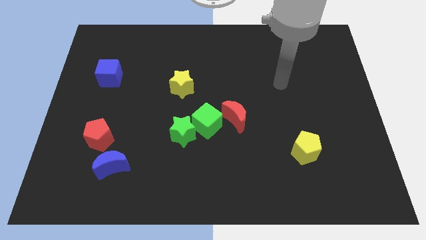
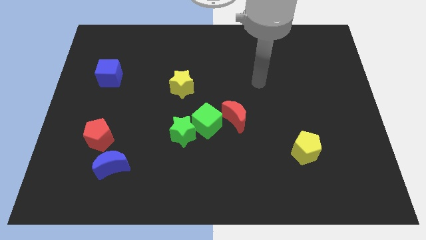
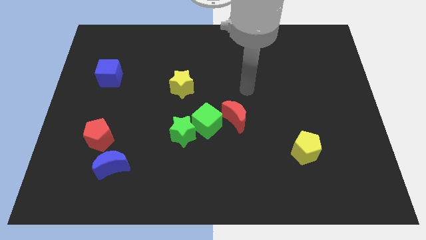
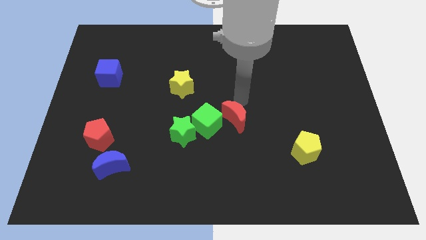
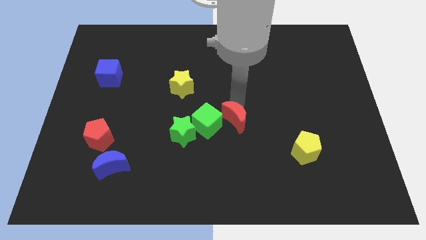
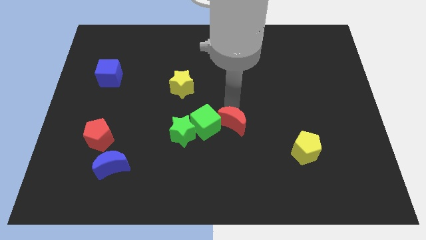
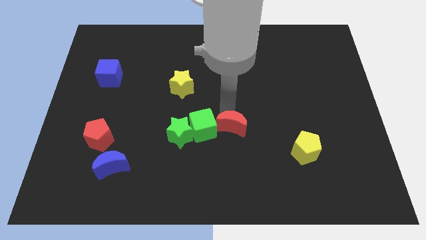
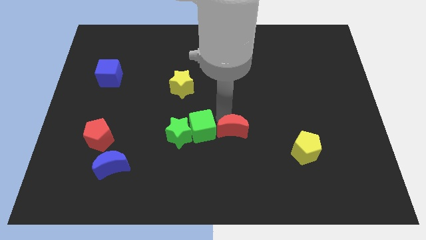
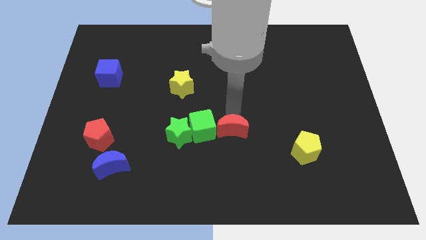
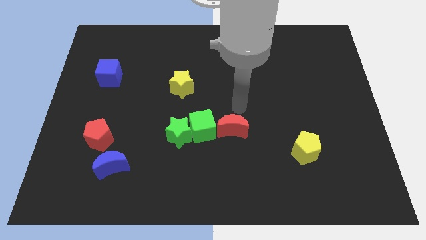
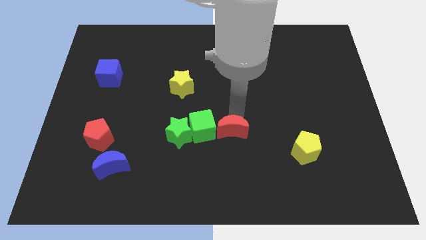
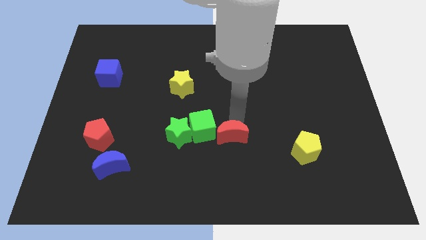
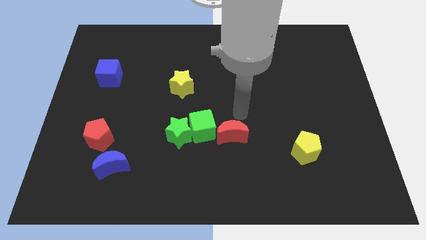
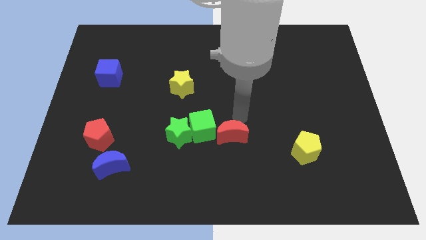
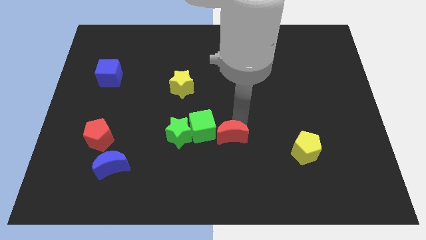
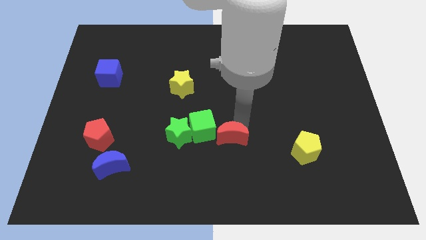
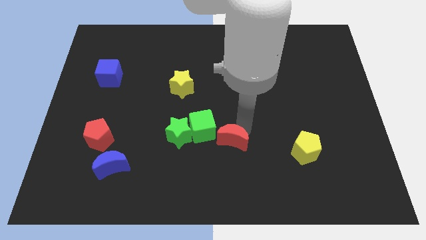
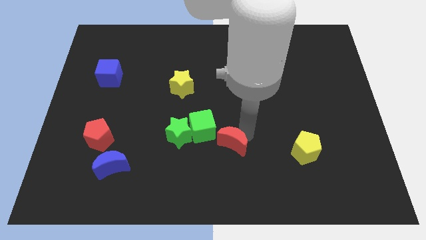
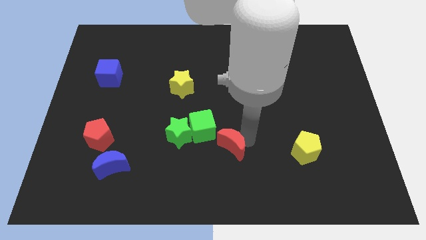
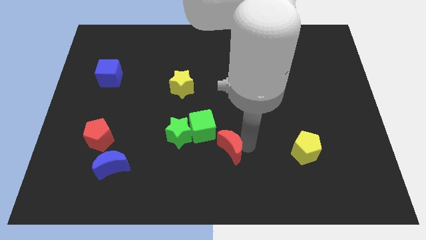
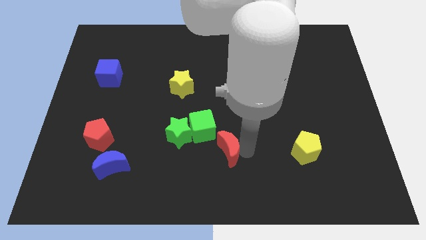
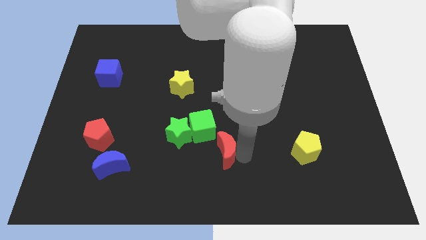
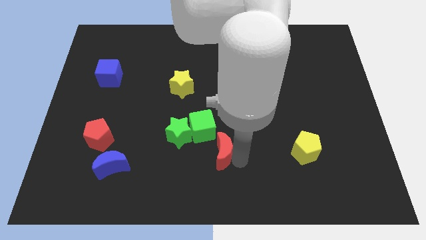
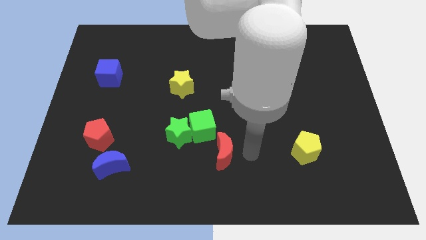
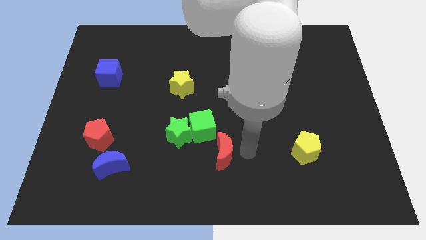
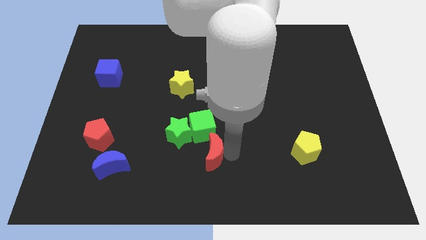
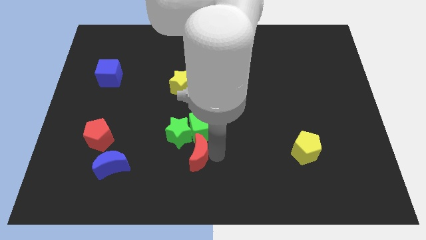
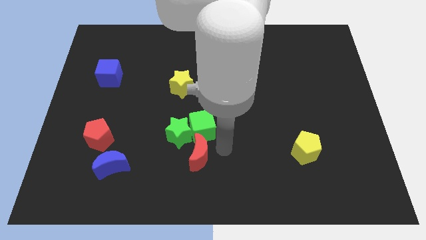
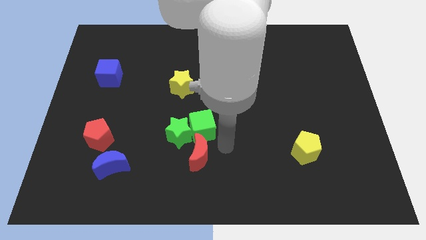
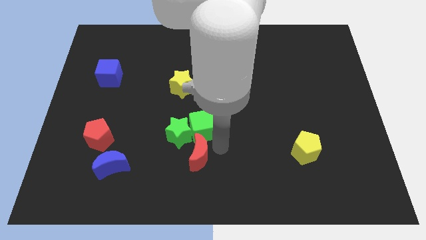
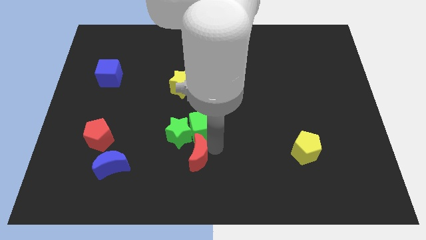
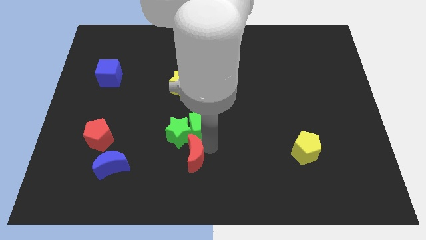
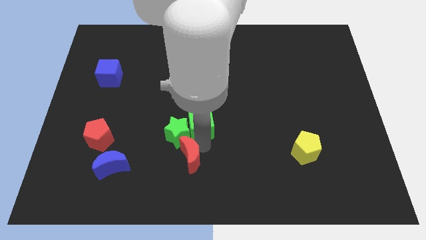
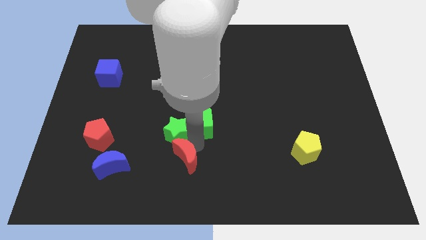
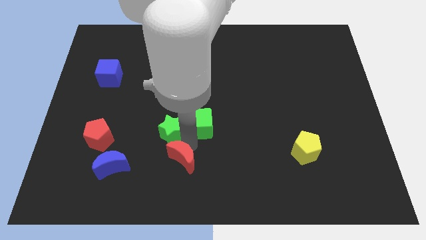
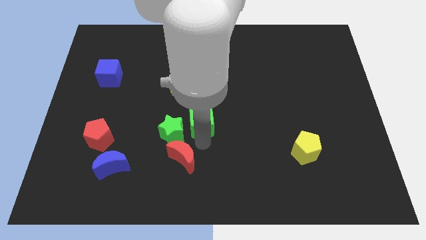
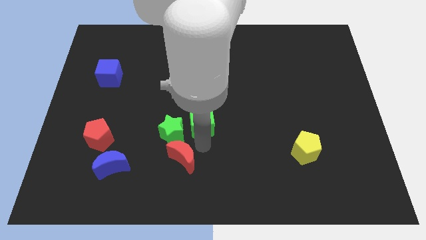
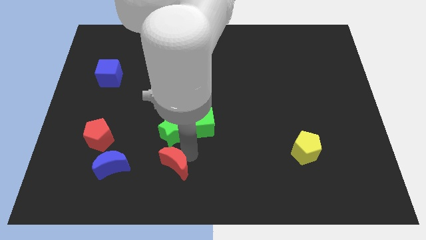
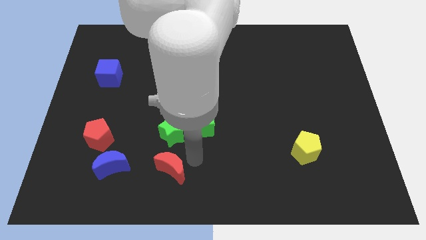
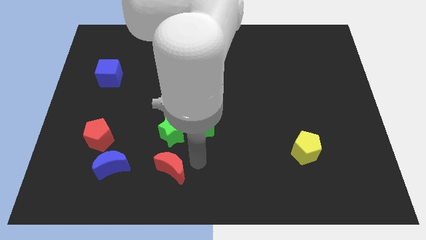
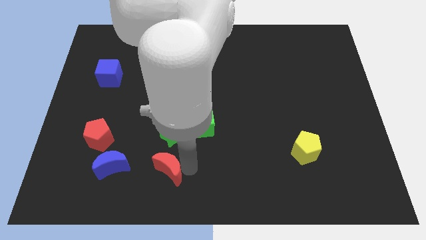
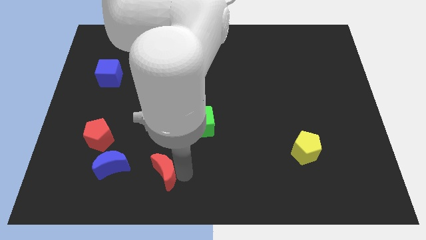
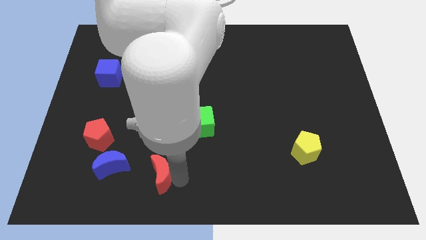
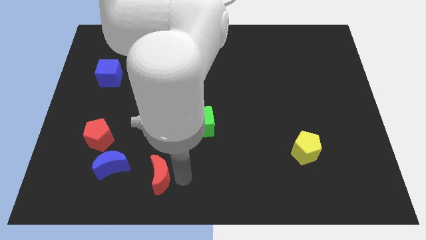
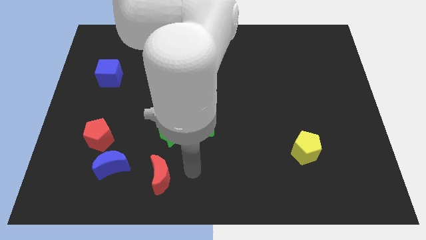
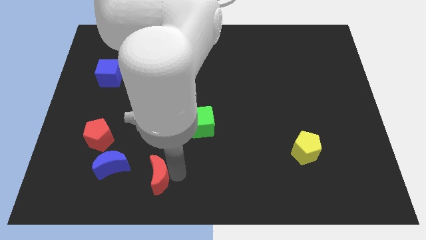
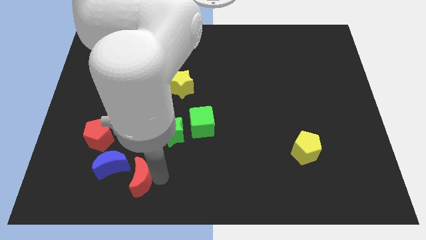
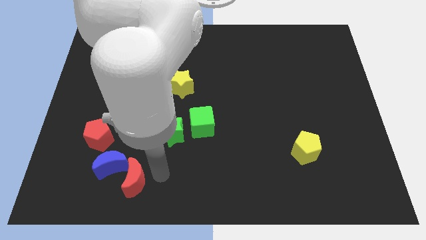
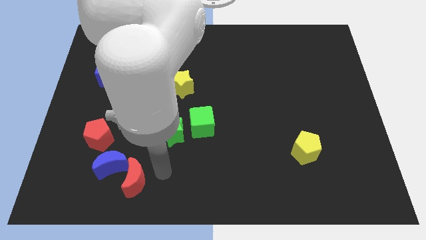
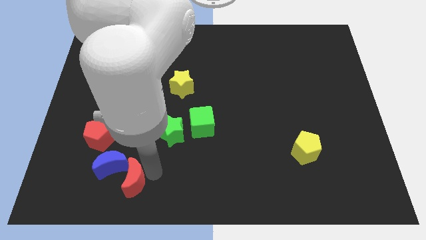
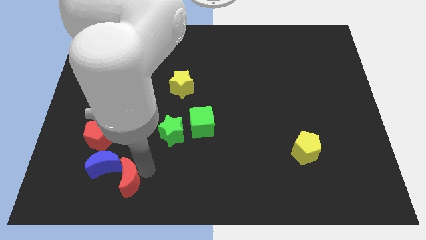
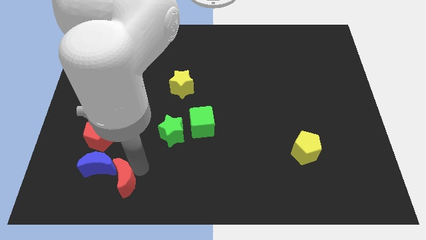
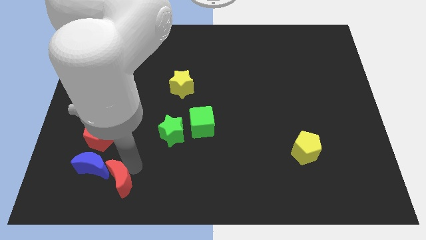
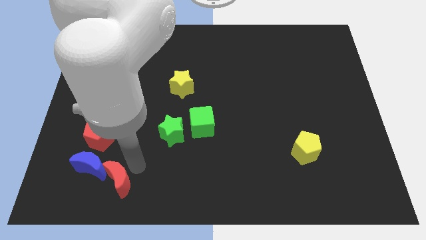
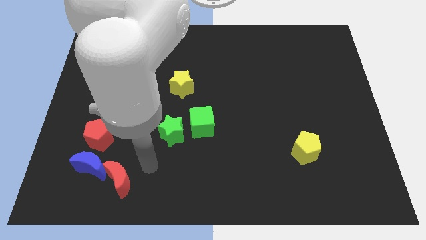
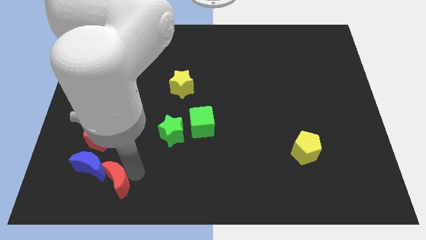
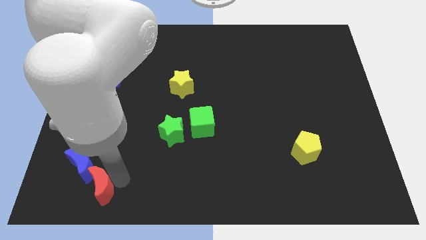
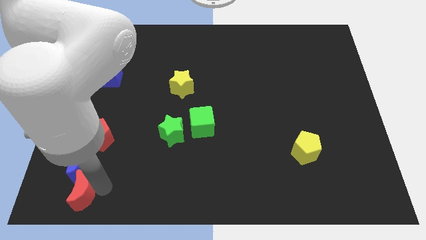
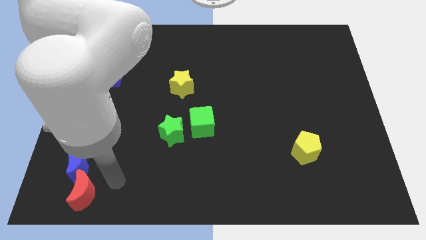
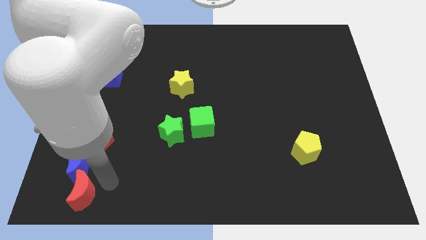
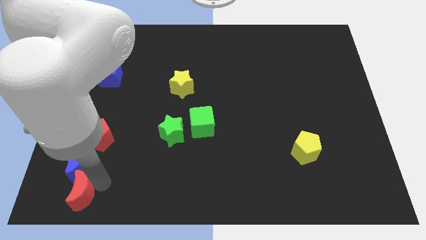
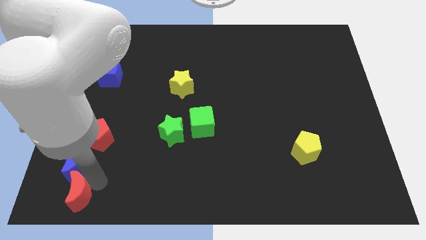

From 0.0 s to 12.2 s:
put the red moon to the bottom left corner

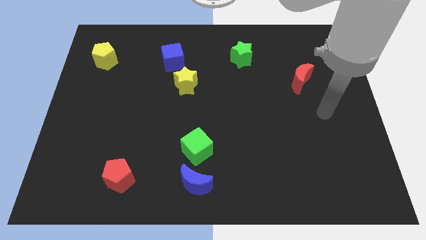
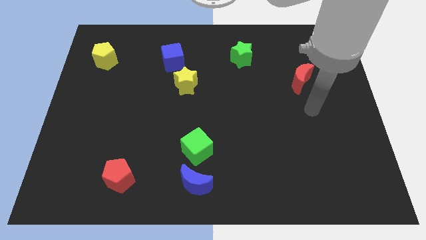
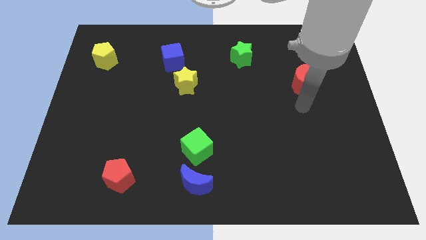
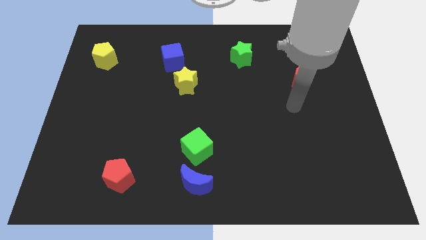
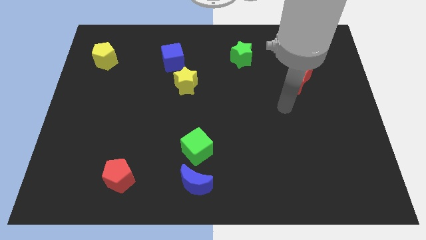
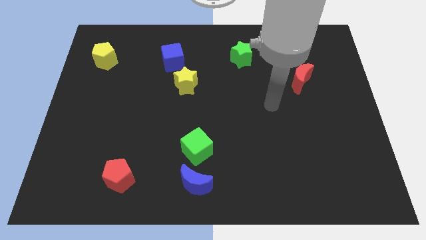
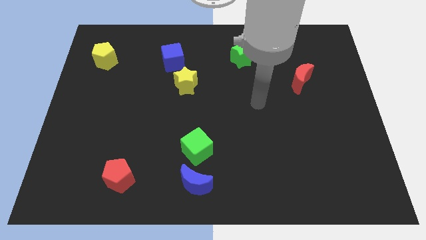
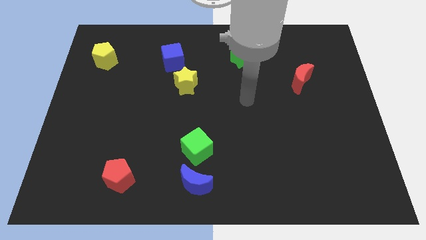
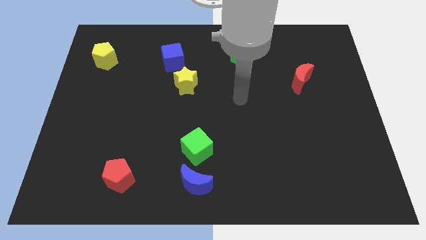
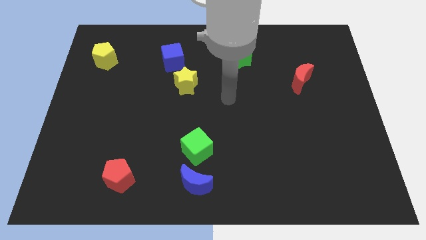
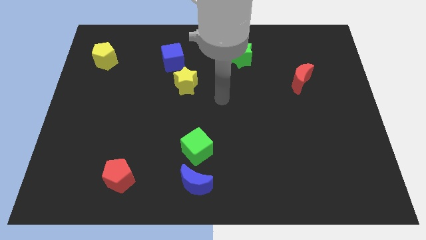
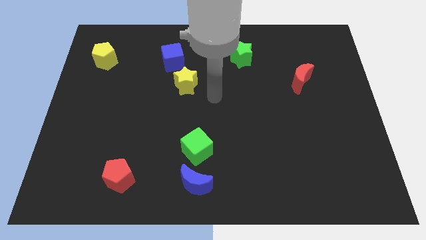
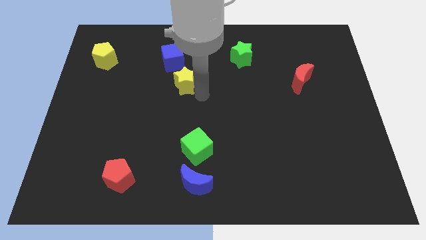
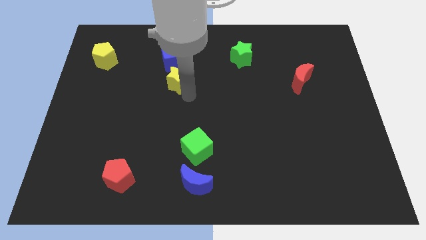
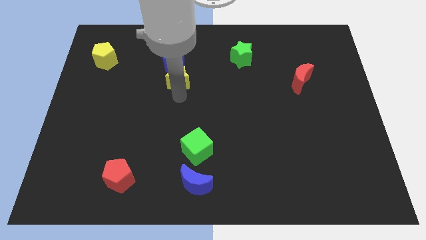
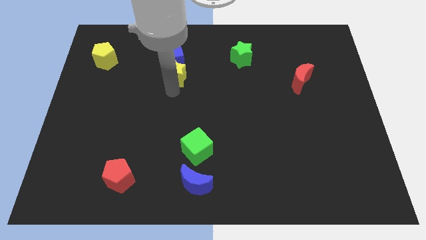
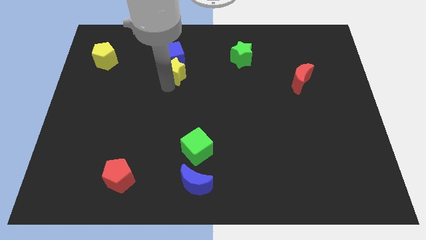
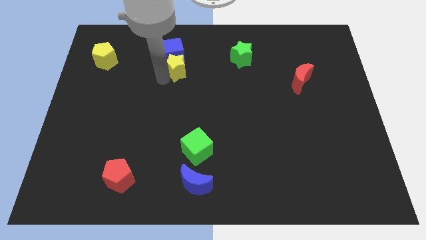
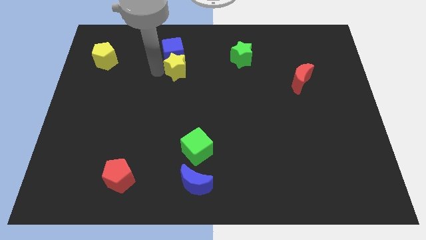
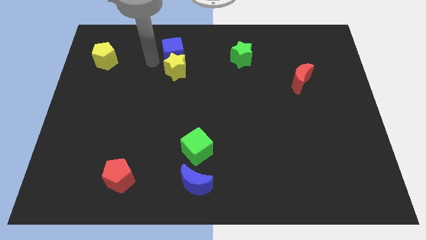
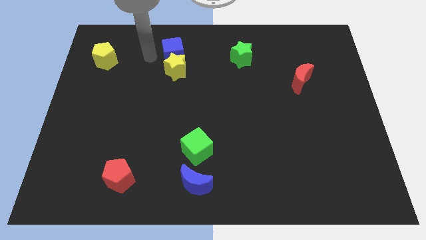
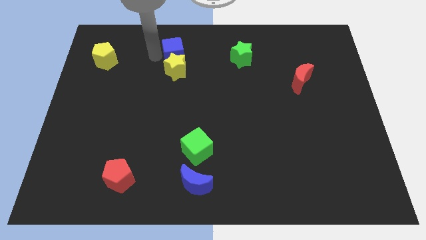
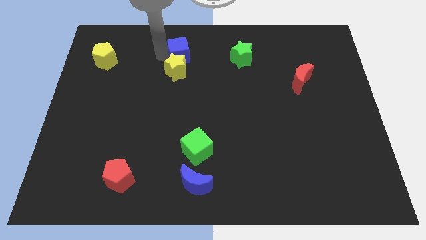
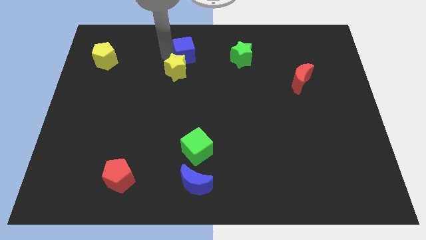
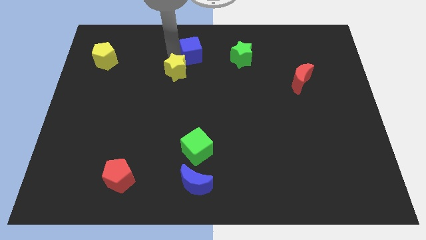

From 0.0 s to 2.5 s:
put the blue cube to the top
